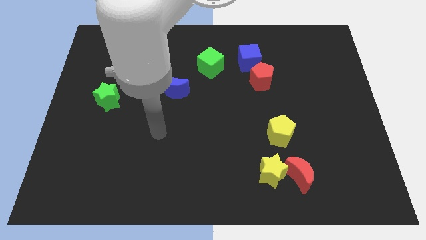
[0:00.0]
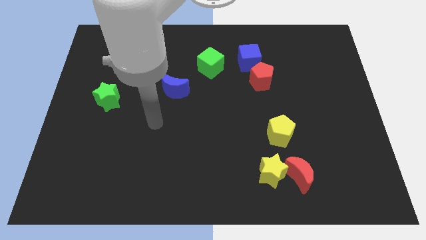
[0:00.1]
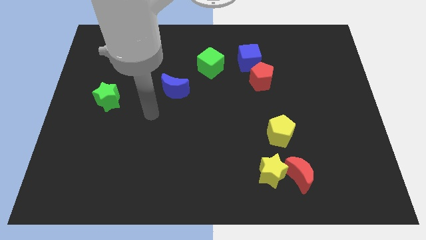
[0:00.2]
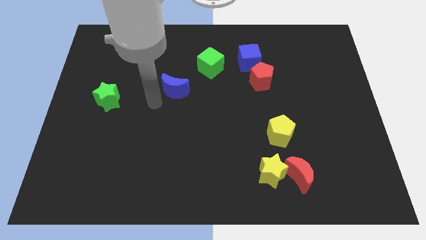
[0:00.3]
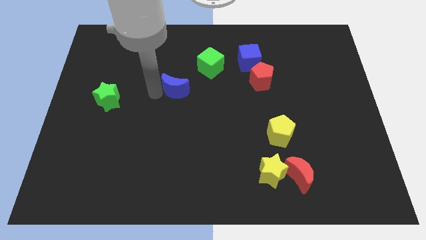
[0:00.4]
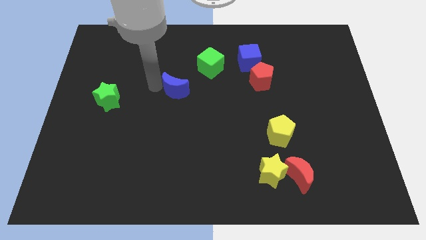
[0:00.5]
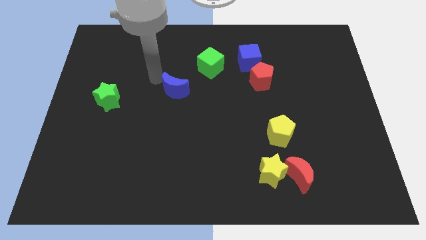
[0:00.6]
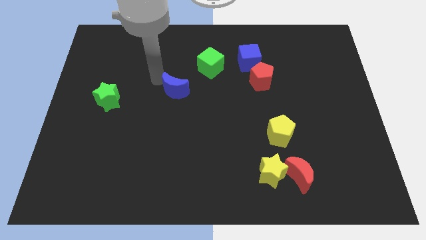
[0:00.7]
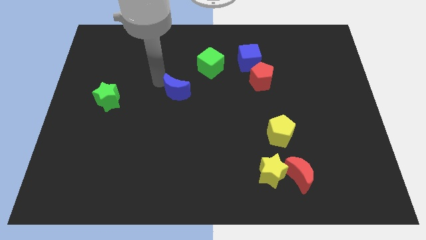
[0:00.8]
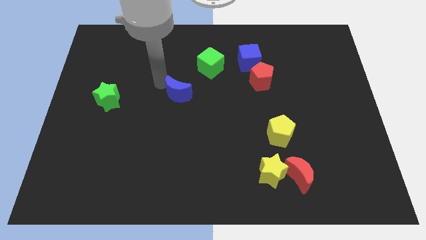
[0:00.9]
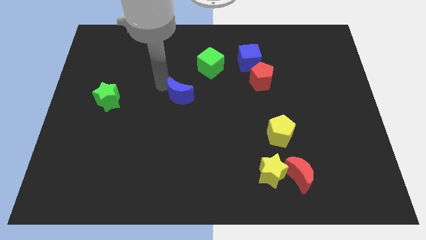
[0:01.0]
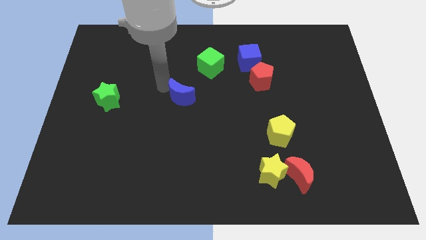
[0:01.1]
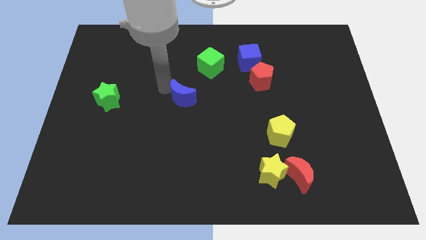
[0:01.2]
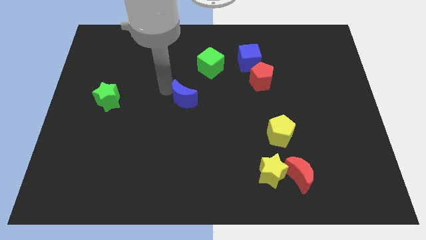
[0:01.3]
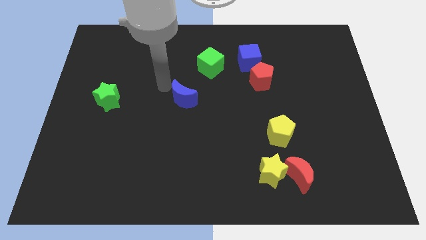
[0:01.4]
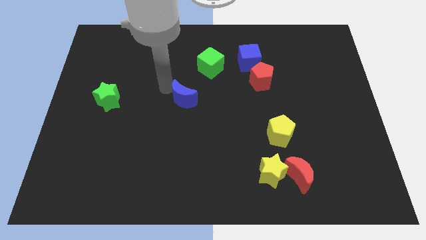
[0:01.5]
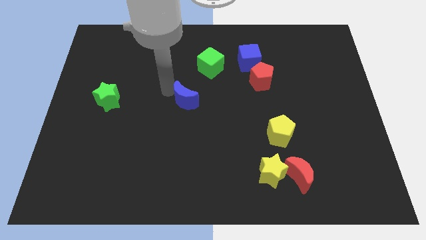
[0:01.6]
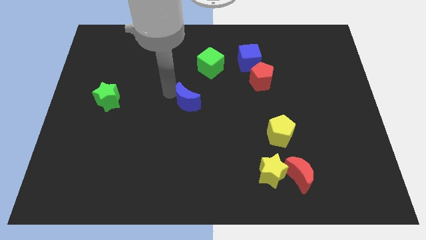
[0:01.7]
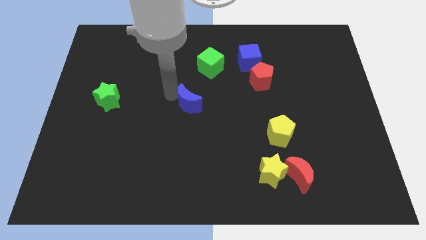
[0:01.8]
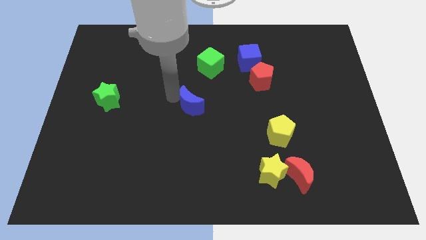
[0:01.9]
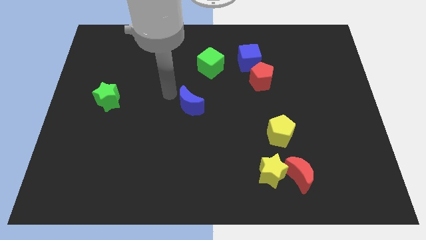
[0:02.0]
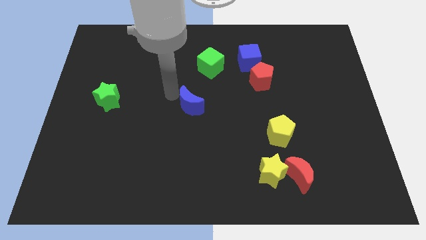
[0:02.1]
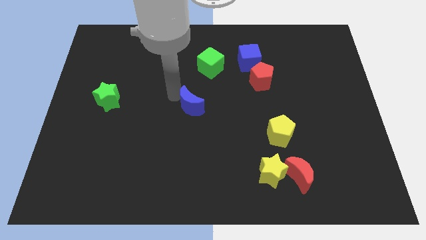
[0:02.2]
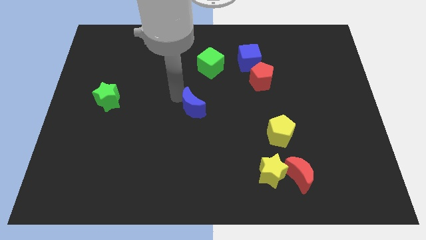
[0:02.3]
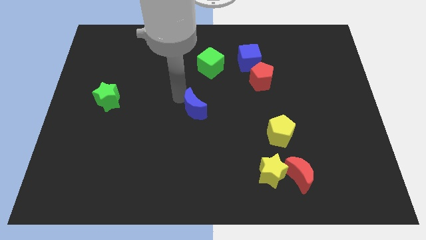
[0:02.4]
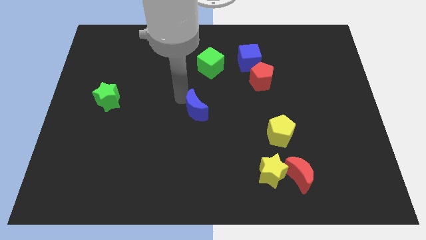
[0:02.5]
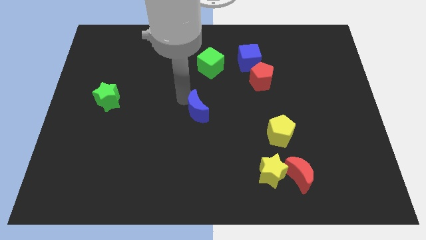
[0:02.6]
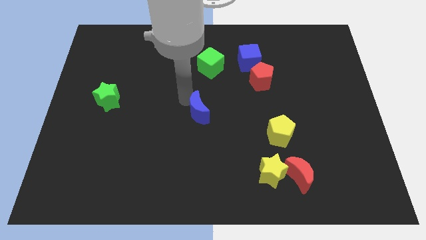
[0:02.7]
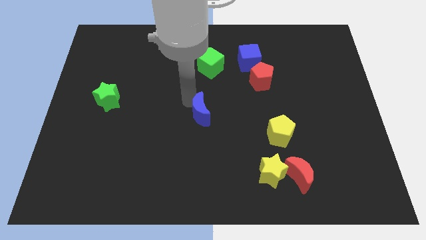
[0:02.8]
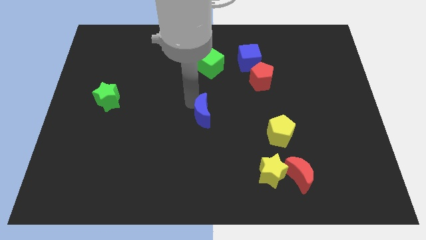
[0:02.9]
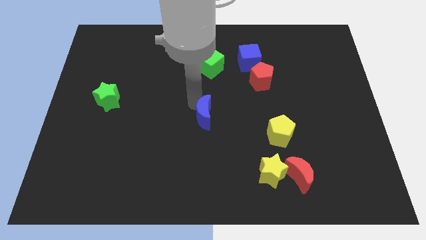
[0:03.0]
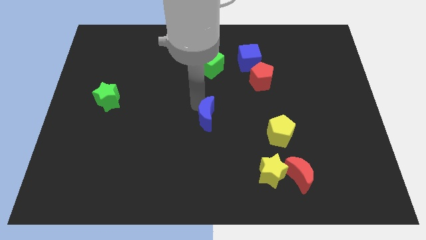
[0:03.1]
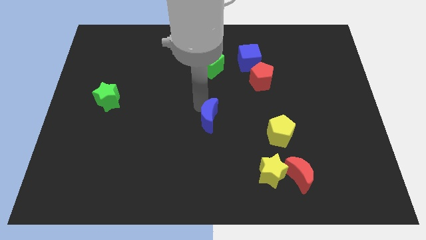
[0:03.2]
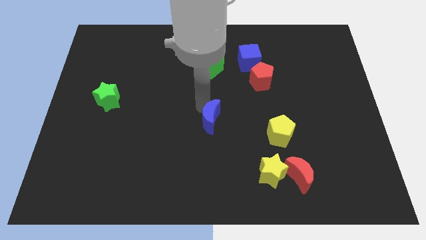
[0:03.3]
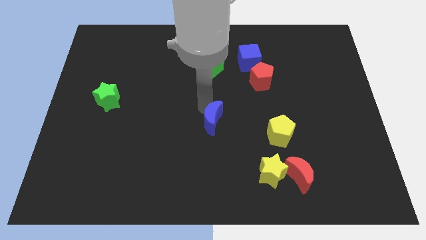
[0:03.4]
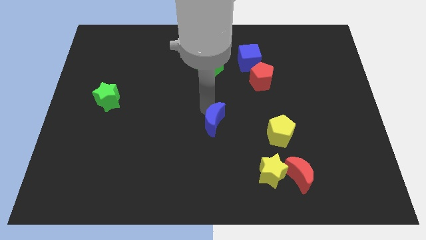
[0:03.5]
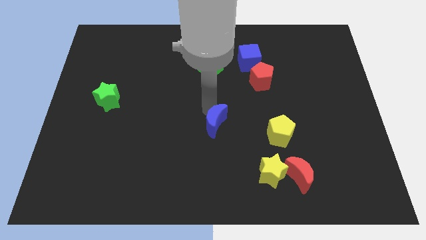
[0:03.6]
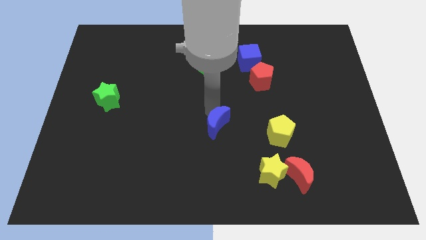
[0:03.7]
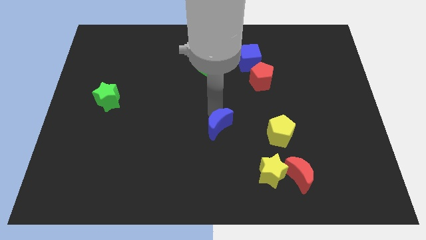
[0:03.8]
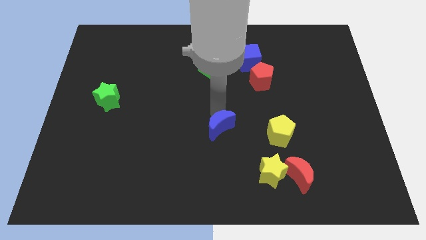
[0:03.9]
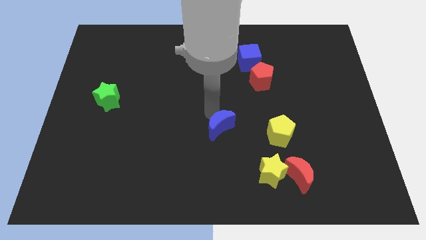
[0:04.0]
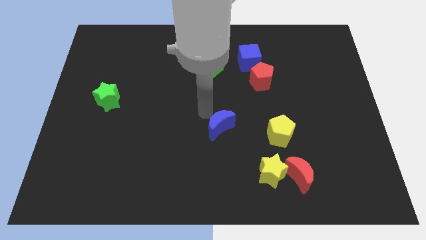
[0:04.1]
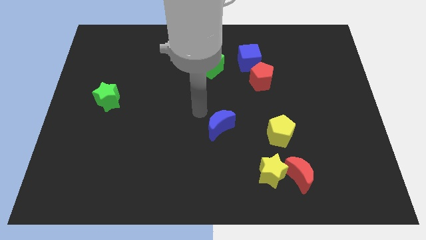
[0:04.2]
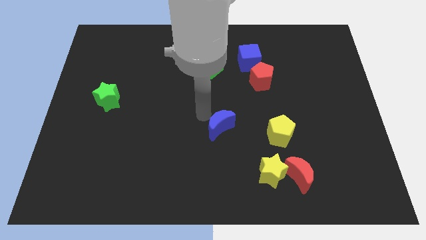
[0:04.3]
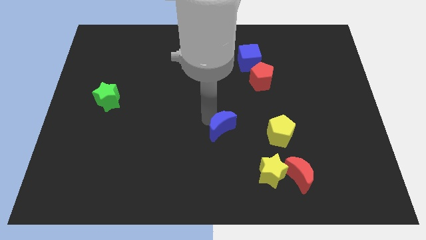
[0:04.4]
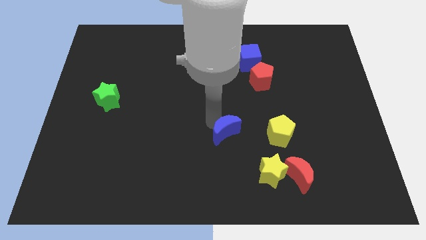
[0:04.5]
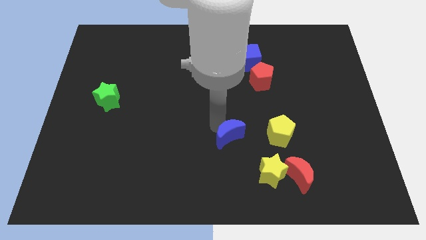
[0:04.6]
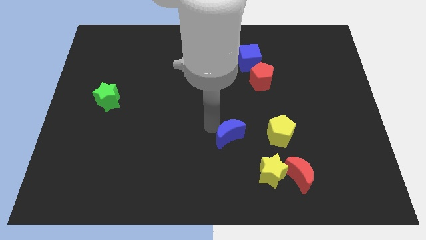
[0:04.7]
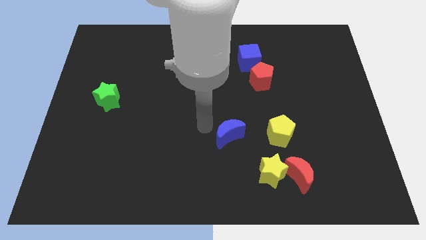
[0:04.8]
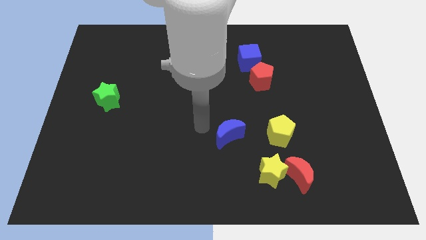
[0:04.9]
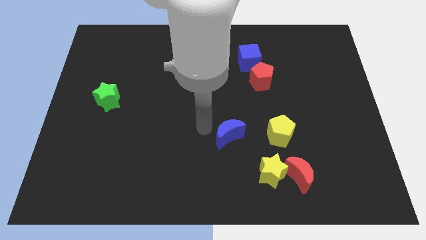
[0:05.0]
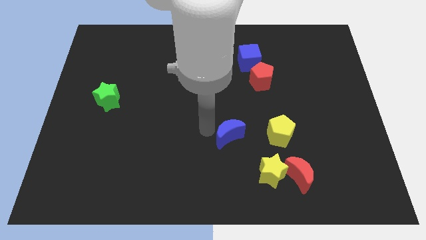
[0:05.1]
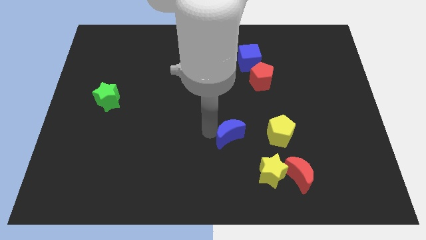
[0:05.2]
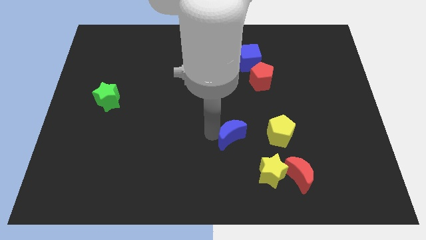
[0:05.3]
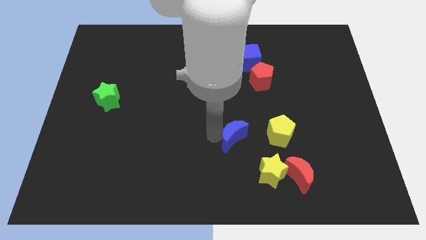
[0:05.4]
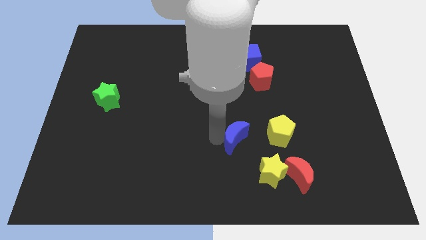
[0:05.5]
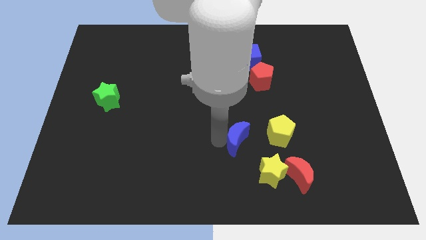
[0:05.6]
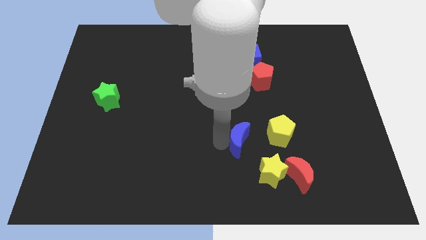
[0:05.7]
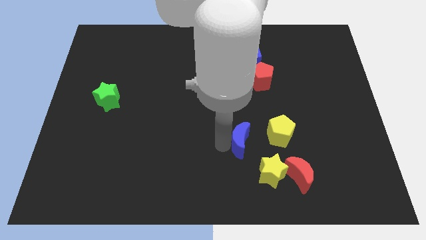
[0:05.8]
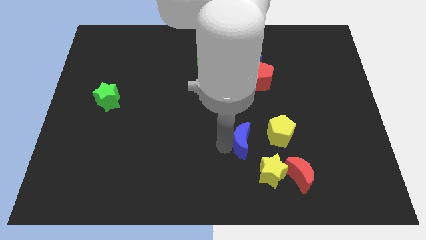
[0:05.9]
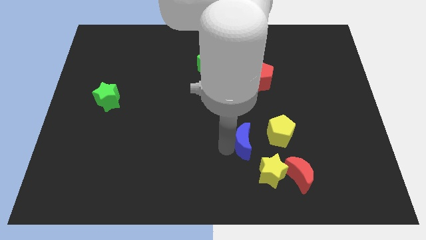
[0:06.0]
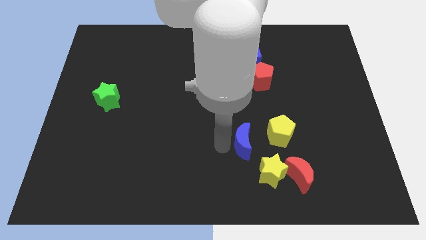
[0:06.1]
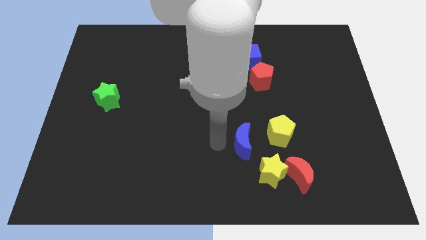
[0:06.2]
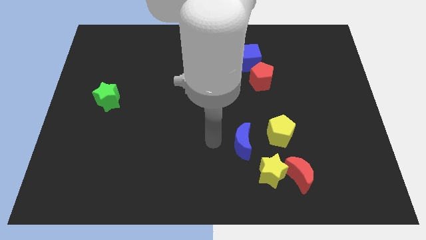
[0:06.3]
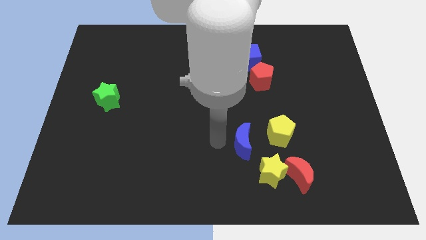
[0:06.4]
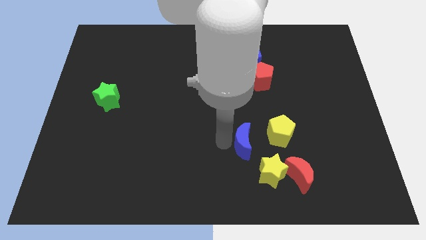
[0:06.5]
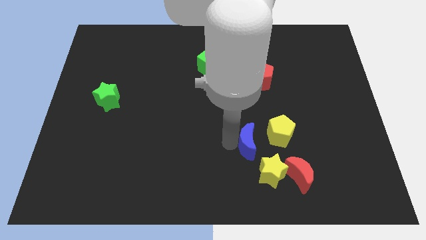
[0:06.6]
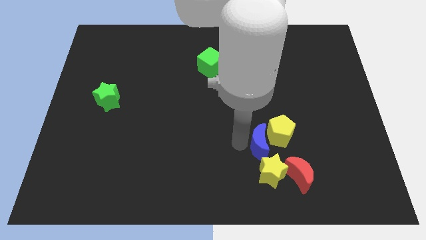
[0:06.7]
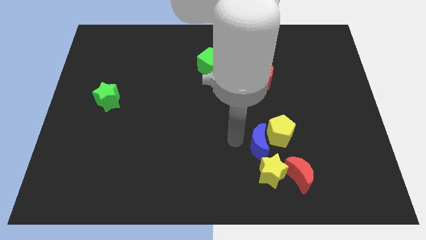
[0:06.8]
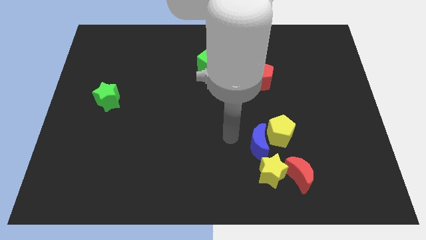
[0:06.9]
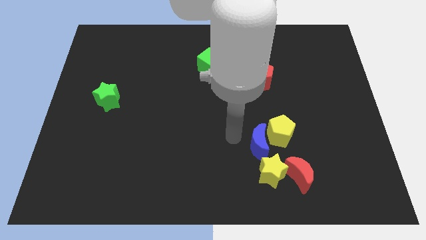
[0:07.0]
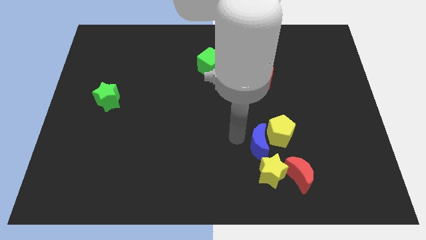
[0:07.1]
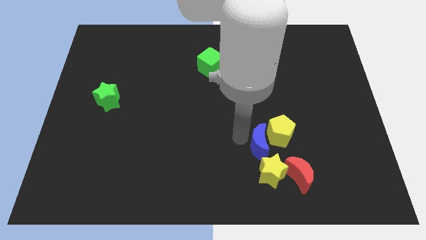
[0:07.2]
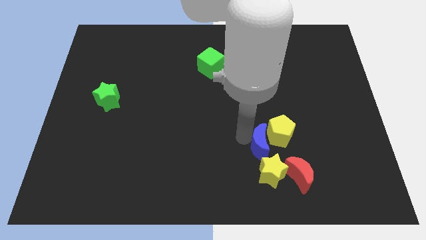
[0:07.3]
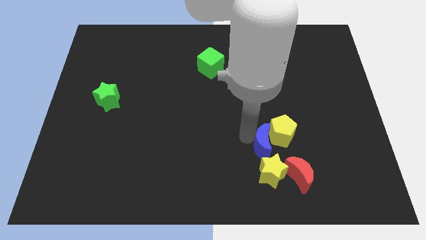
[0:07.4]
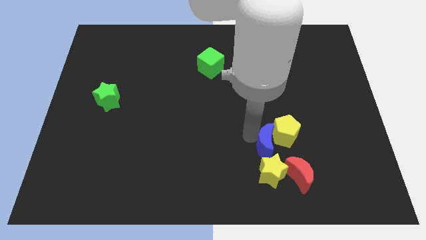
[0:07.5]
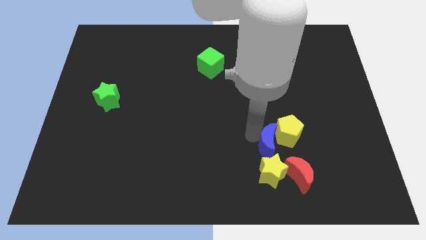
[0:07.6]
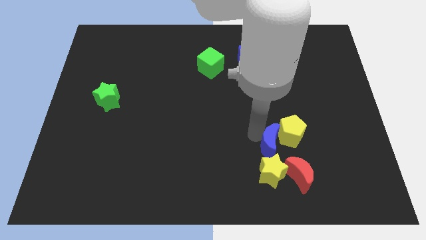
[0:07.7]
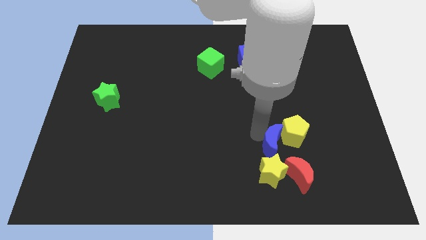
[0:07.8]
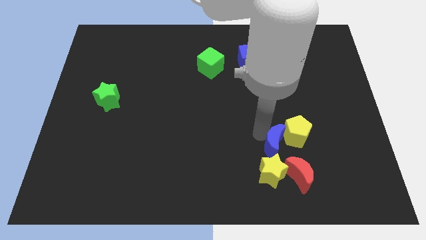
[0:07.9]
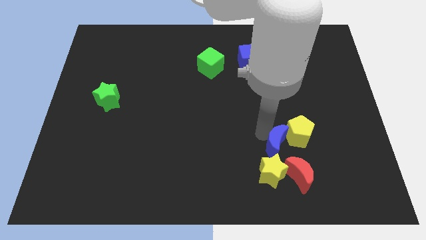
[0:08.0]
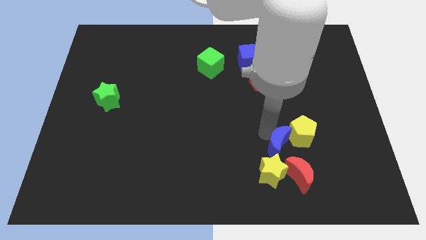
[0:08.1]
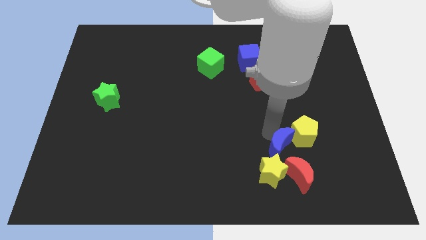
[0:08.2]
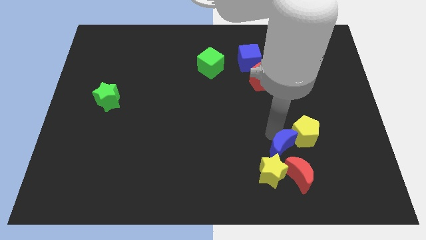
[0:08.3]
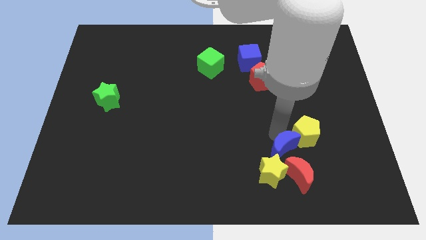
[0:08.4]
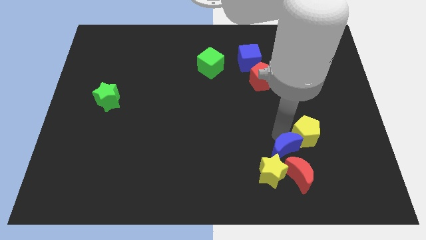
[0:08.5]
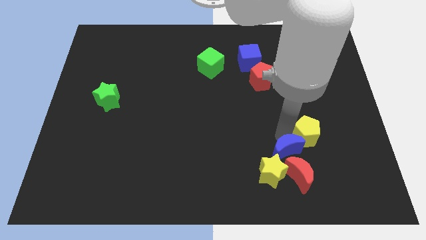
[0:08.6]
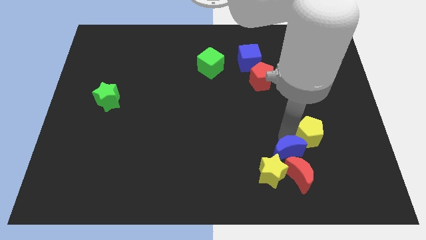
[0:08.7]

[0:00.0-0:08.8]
push the blue moon to the red moon
